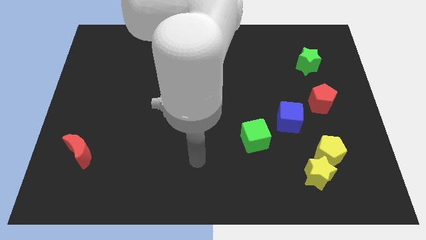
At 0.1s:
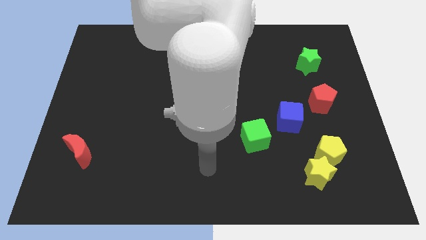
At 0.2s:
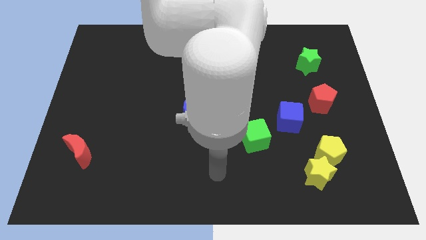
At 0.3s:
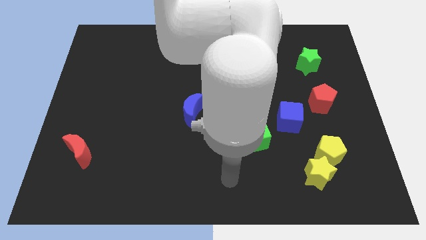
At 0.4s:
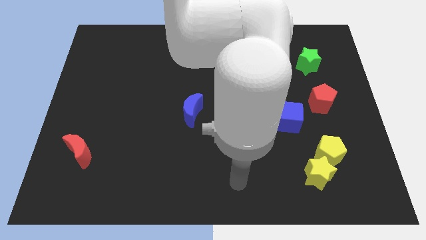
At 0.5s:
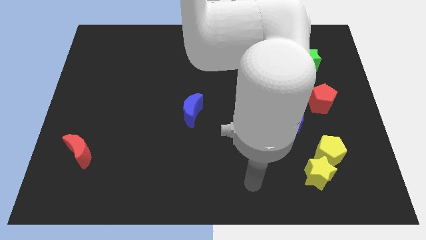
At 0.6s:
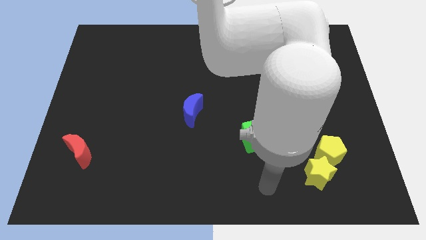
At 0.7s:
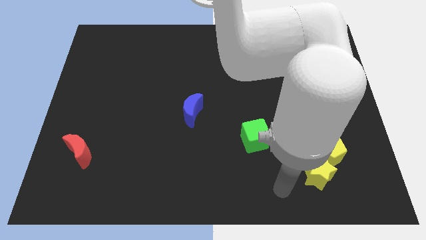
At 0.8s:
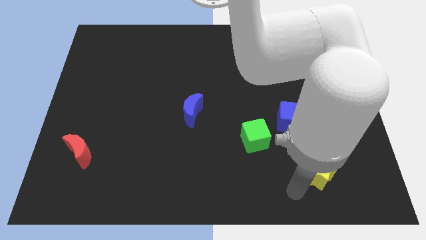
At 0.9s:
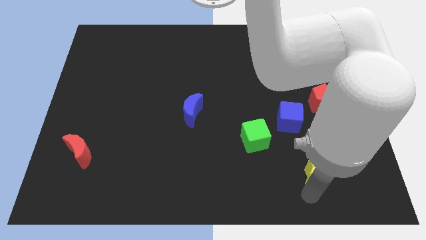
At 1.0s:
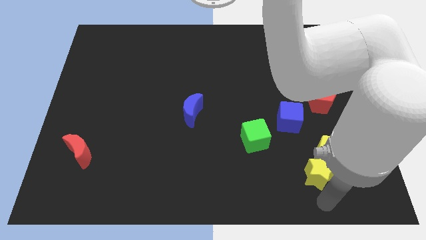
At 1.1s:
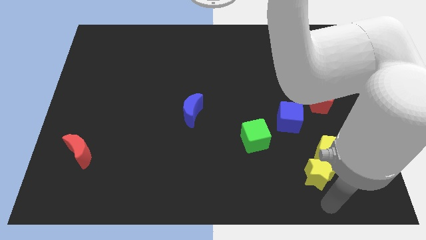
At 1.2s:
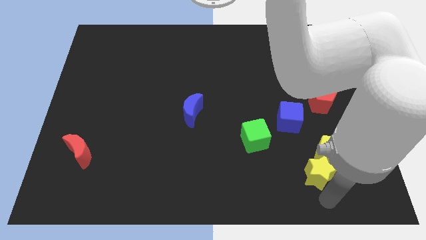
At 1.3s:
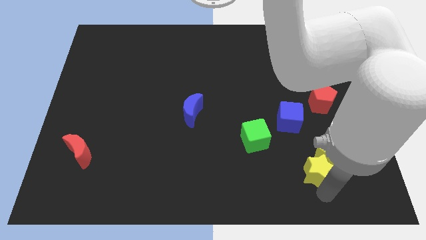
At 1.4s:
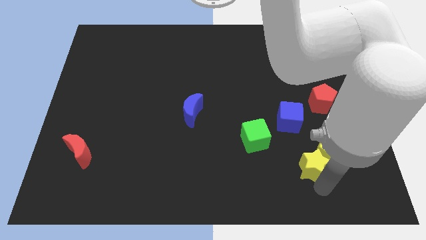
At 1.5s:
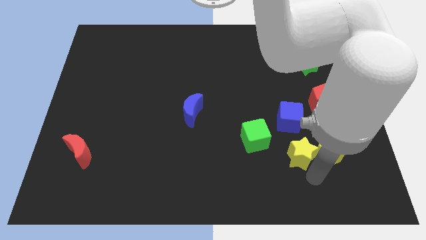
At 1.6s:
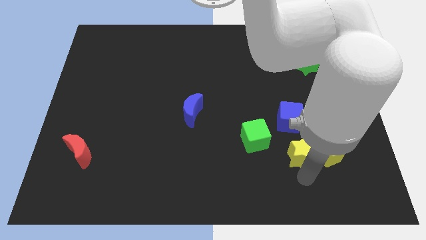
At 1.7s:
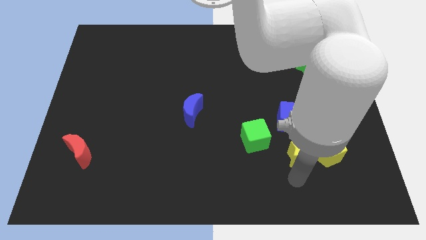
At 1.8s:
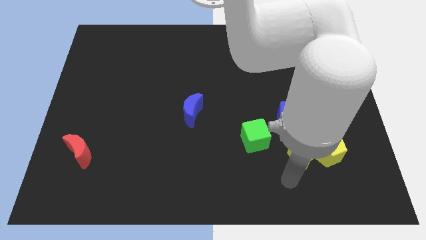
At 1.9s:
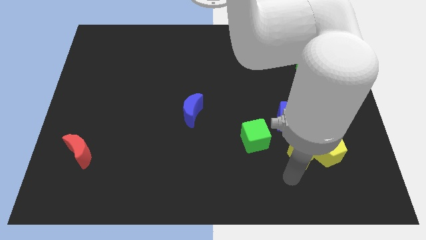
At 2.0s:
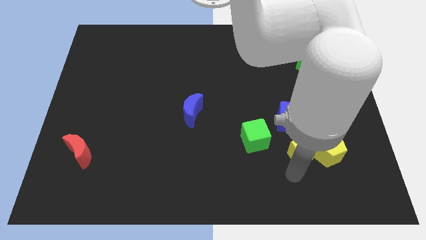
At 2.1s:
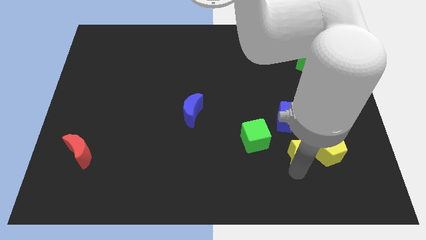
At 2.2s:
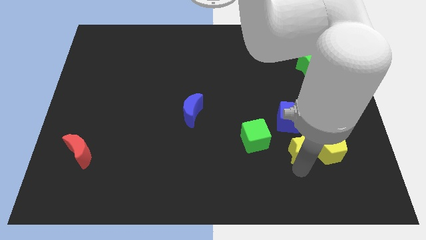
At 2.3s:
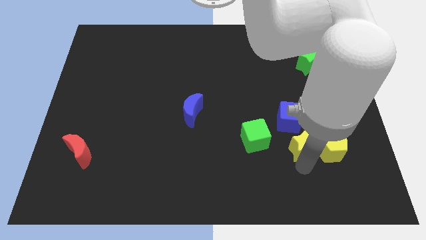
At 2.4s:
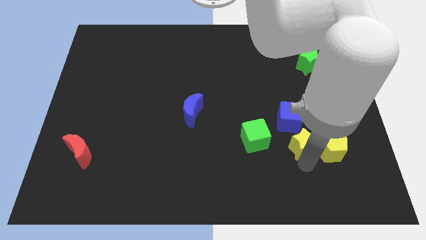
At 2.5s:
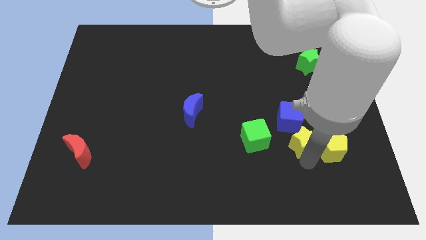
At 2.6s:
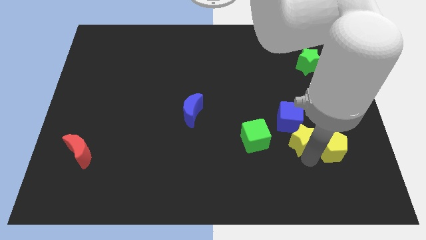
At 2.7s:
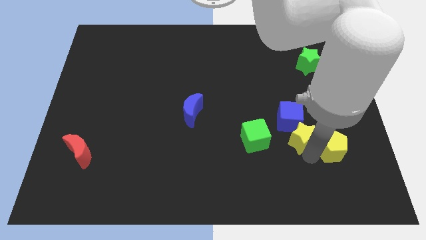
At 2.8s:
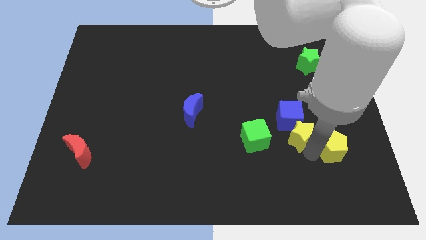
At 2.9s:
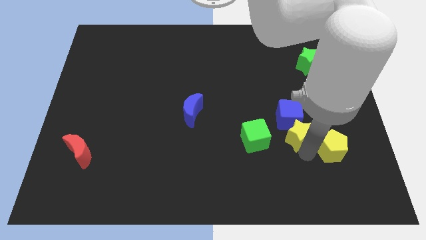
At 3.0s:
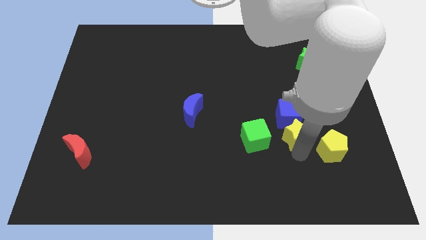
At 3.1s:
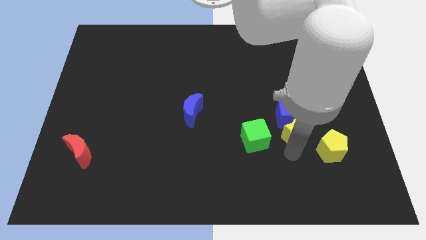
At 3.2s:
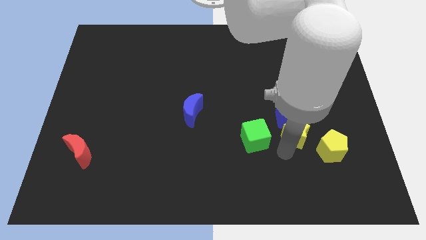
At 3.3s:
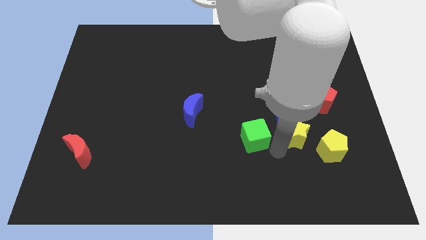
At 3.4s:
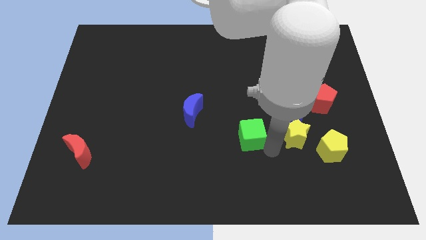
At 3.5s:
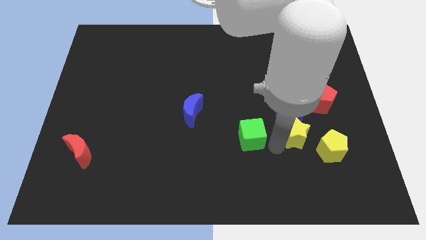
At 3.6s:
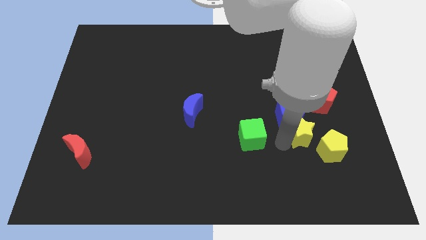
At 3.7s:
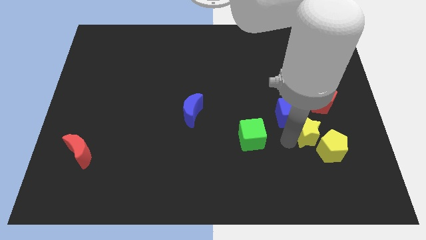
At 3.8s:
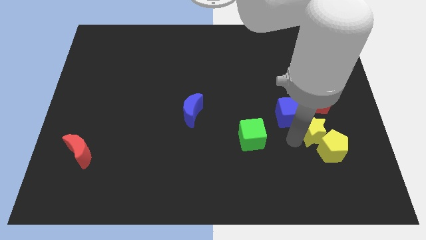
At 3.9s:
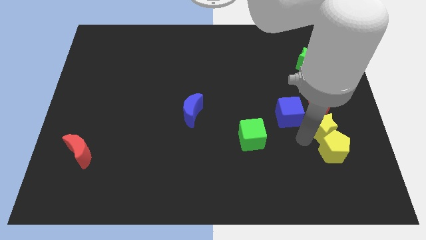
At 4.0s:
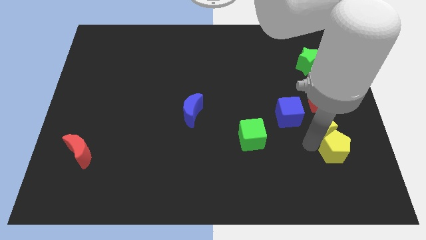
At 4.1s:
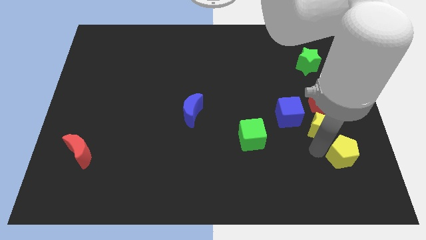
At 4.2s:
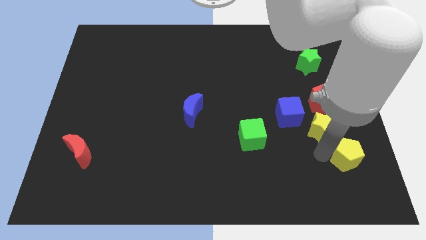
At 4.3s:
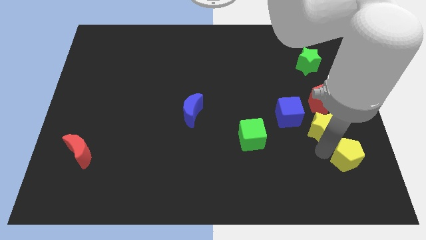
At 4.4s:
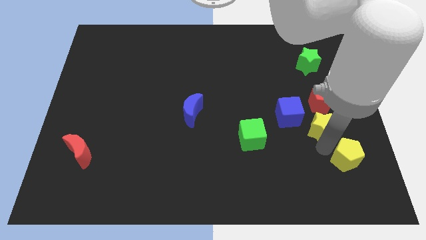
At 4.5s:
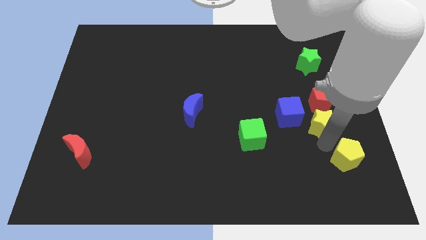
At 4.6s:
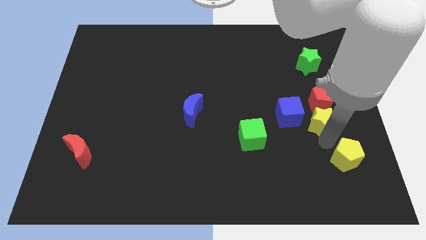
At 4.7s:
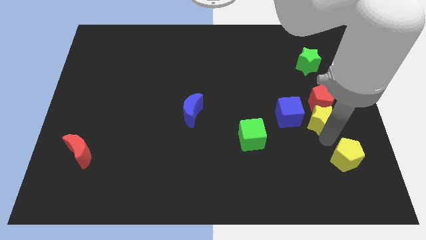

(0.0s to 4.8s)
slide the yellow star towards the red pentagon

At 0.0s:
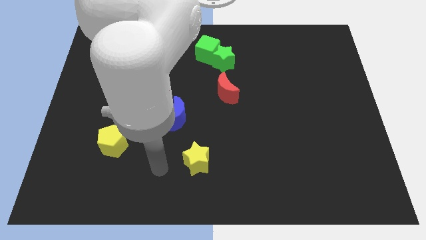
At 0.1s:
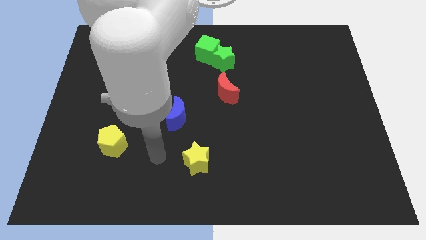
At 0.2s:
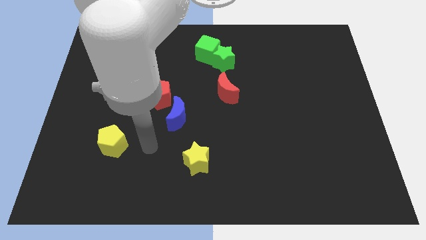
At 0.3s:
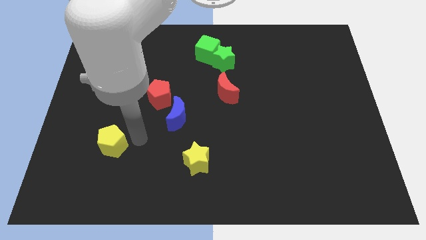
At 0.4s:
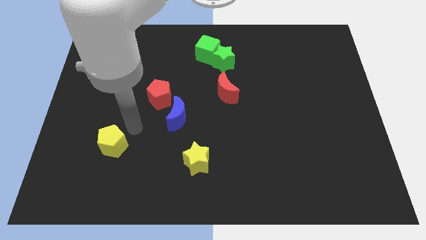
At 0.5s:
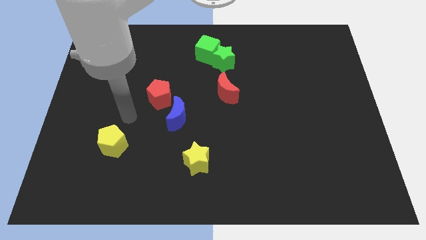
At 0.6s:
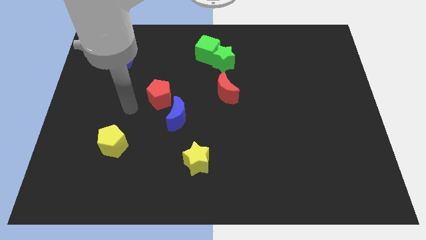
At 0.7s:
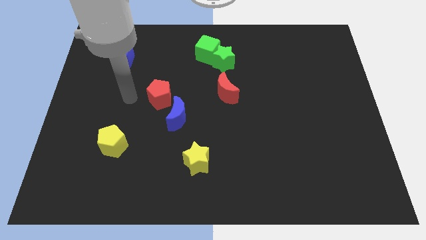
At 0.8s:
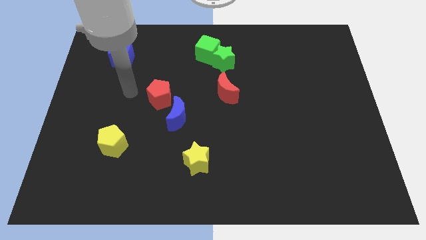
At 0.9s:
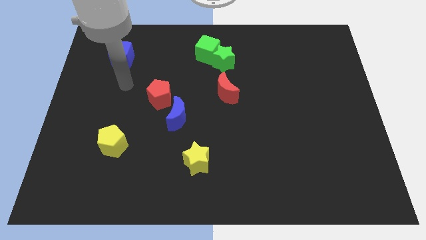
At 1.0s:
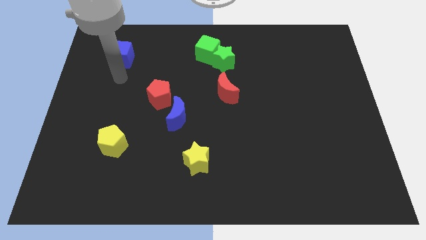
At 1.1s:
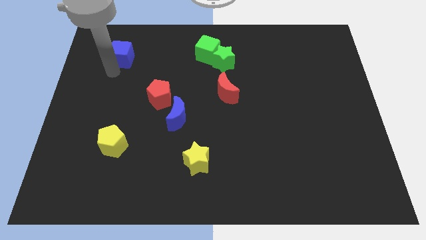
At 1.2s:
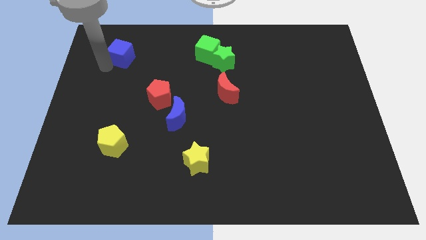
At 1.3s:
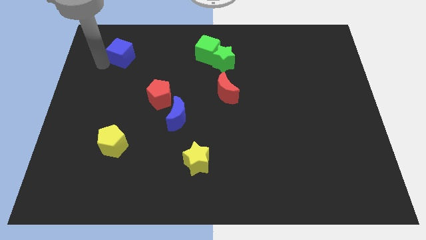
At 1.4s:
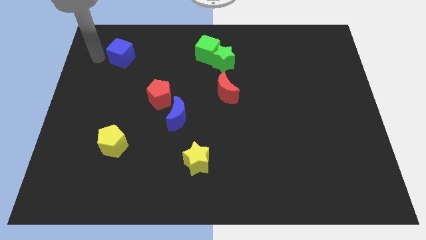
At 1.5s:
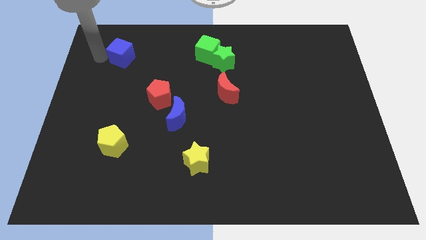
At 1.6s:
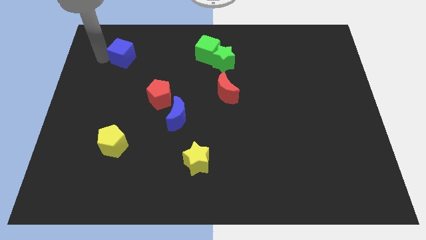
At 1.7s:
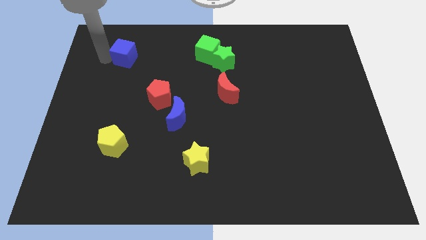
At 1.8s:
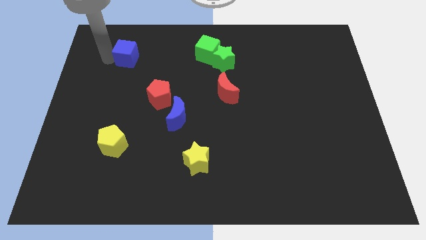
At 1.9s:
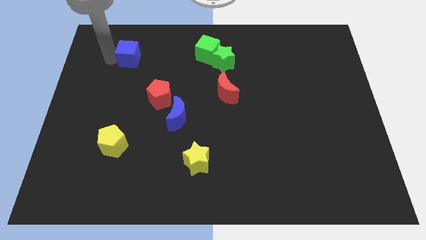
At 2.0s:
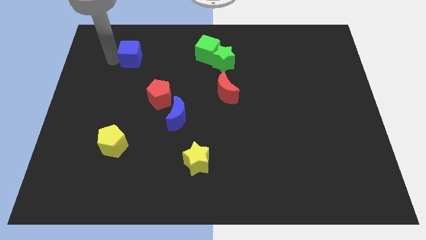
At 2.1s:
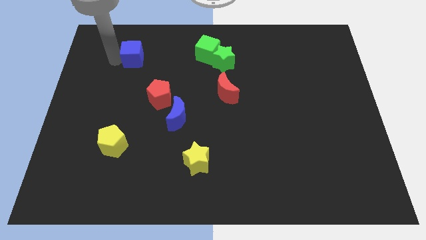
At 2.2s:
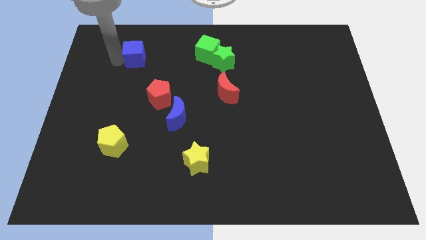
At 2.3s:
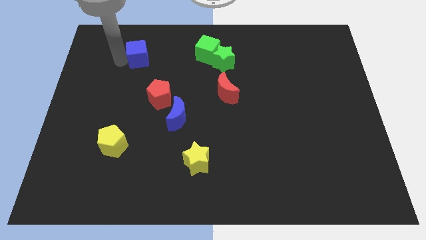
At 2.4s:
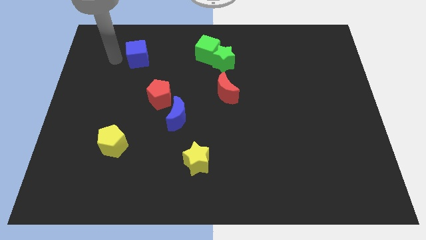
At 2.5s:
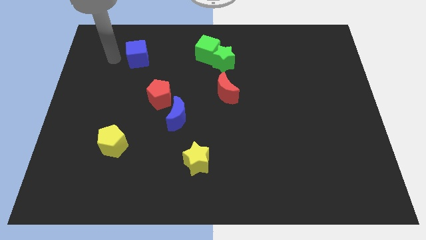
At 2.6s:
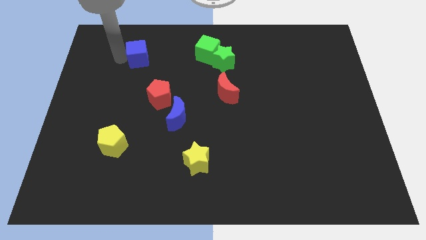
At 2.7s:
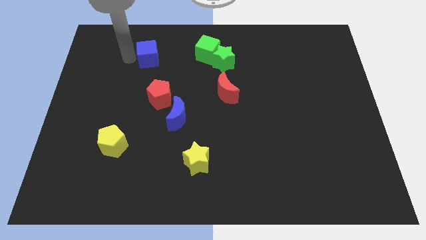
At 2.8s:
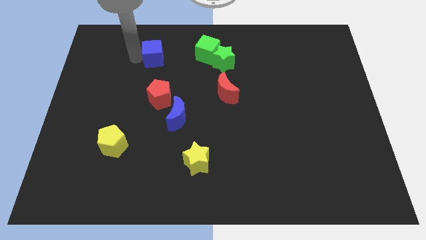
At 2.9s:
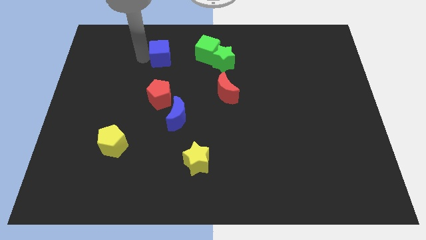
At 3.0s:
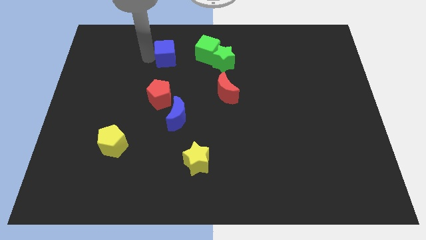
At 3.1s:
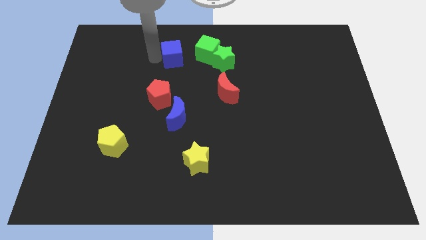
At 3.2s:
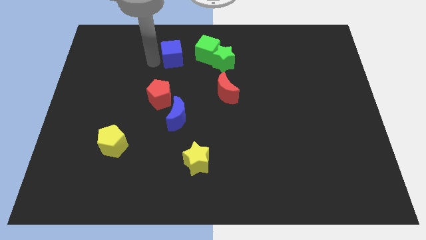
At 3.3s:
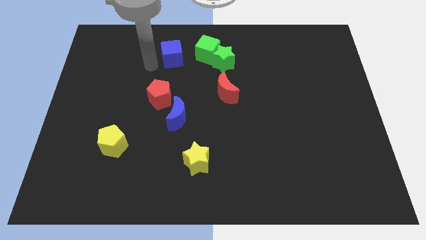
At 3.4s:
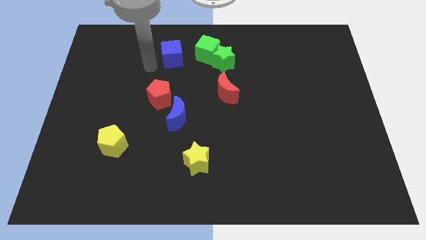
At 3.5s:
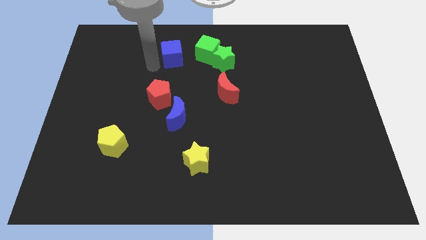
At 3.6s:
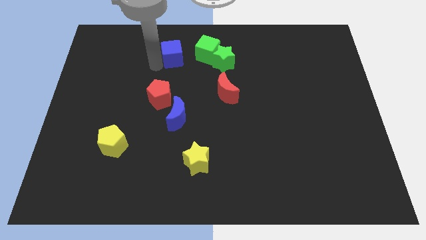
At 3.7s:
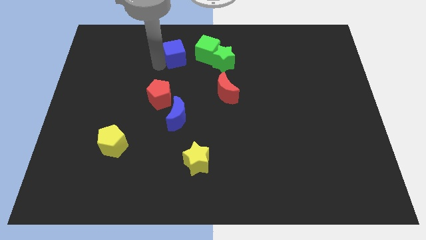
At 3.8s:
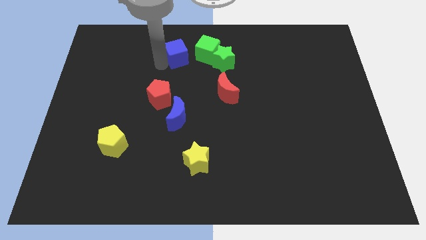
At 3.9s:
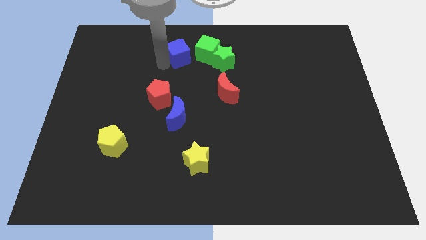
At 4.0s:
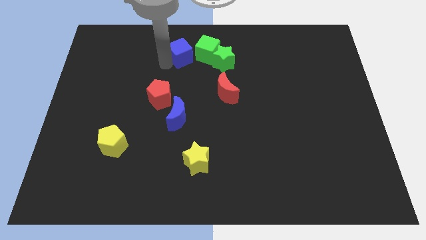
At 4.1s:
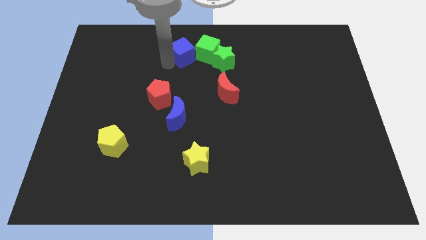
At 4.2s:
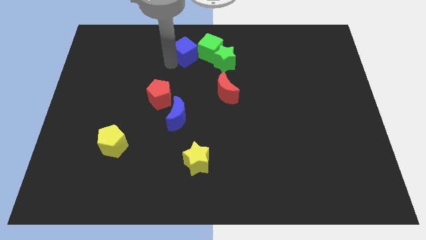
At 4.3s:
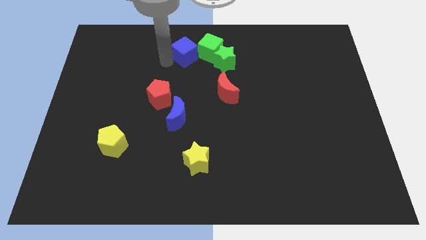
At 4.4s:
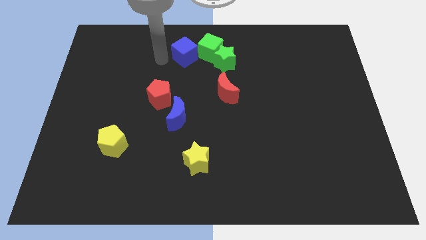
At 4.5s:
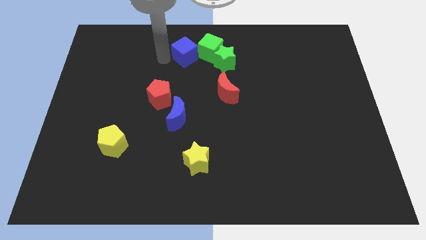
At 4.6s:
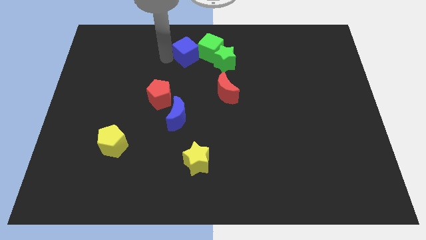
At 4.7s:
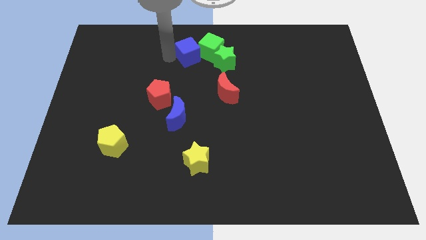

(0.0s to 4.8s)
move the blue cube next to the green cube
